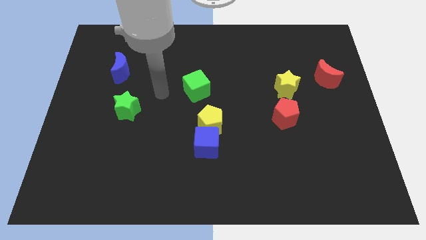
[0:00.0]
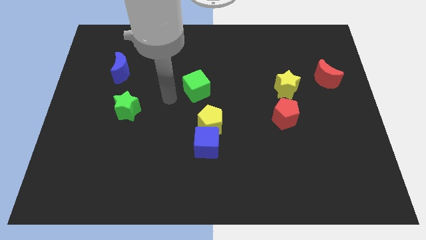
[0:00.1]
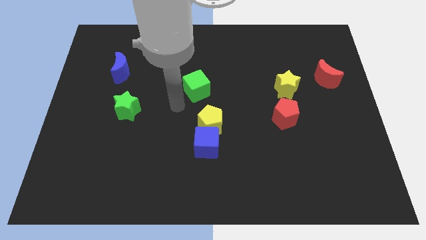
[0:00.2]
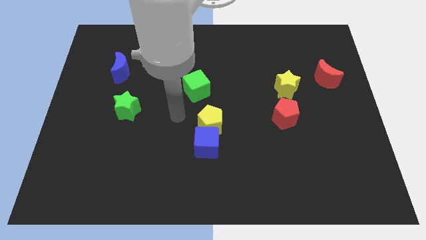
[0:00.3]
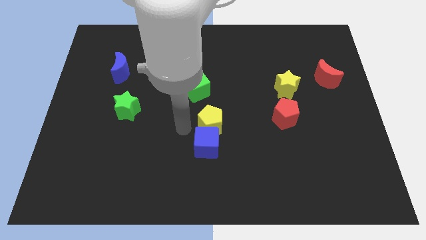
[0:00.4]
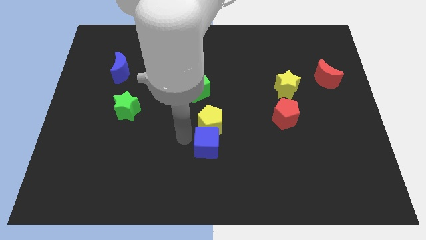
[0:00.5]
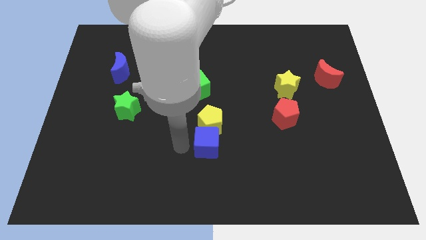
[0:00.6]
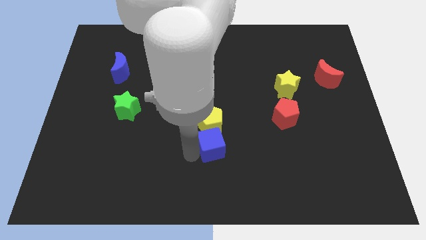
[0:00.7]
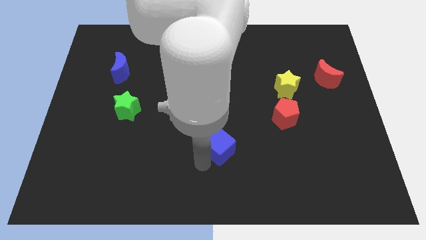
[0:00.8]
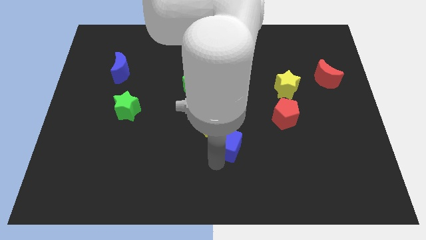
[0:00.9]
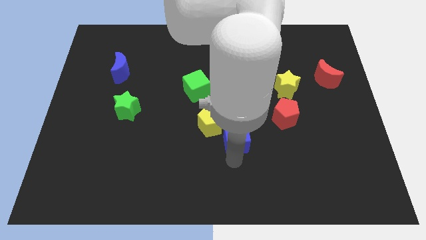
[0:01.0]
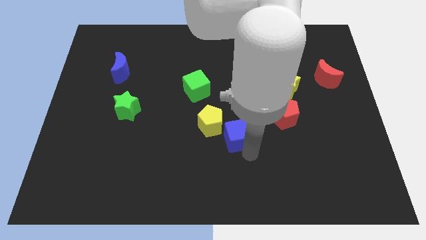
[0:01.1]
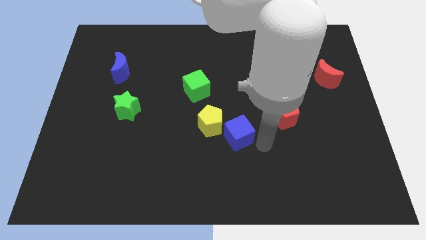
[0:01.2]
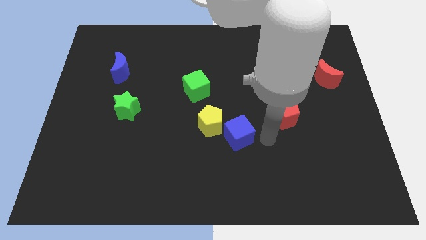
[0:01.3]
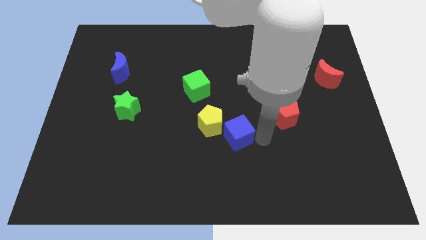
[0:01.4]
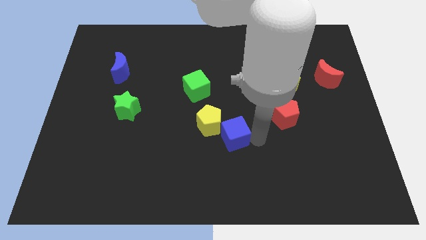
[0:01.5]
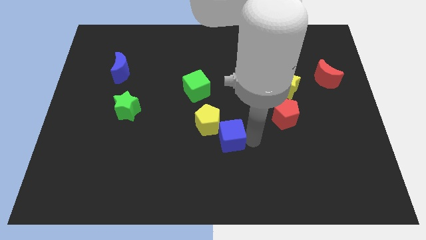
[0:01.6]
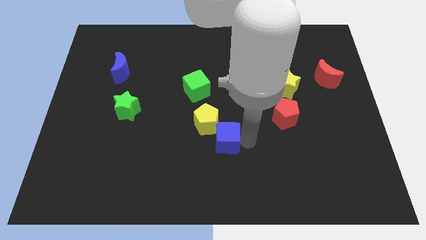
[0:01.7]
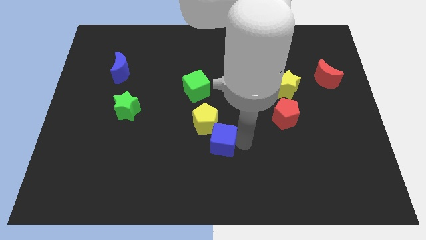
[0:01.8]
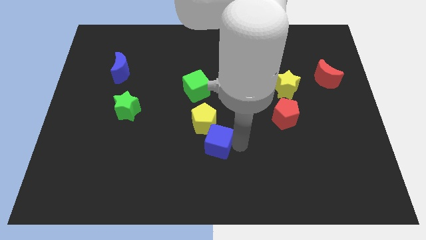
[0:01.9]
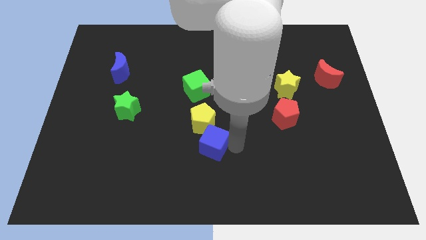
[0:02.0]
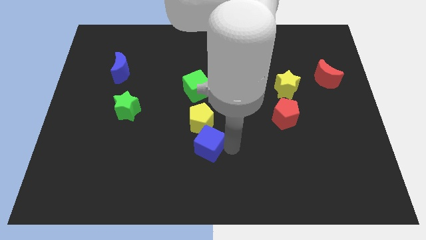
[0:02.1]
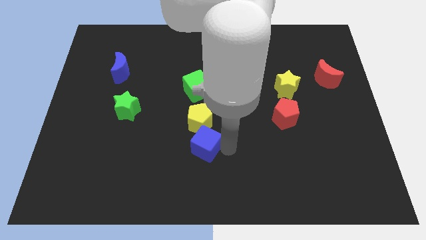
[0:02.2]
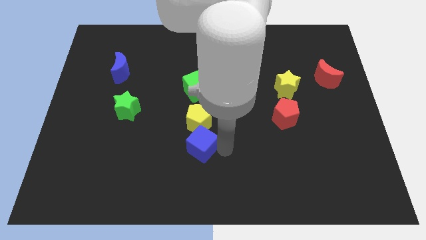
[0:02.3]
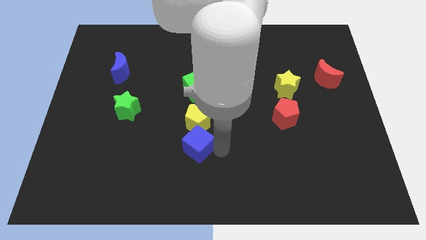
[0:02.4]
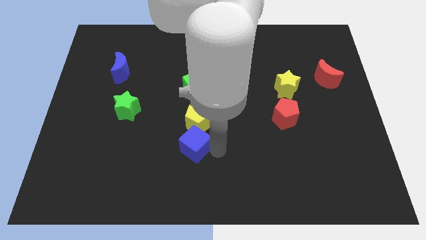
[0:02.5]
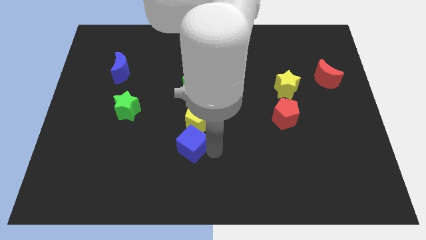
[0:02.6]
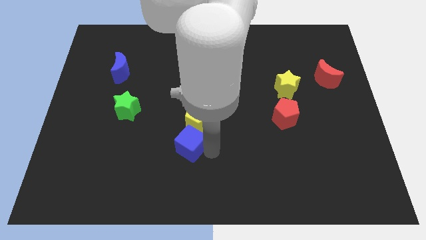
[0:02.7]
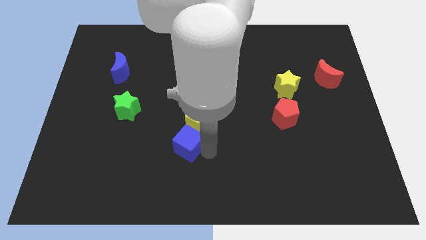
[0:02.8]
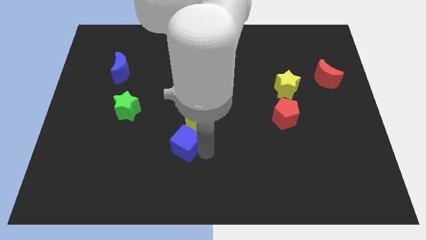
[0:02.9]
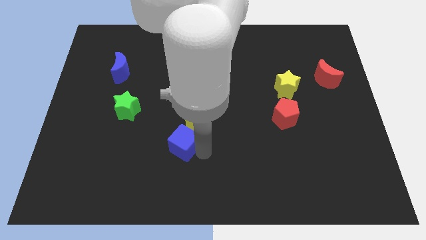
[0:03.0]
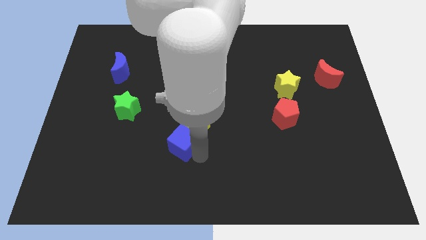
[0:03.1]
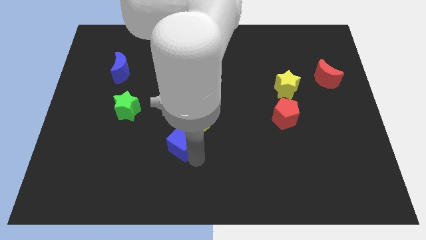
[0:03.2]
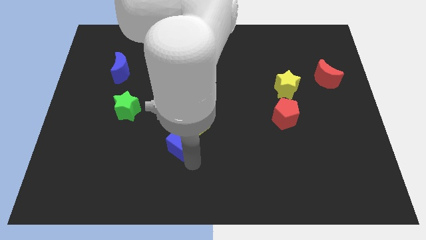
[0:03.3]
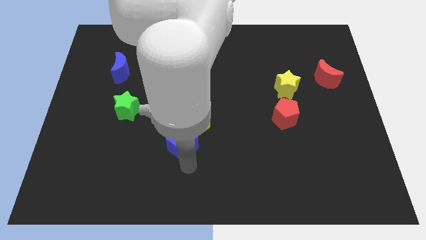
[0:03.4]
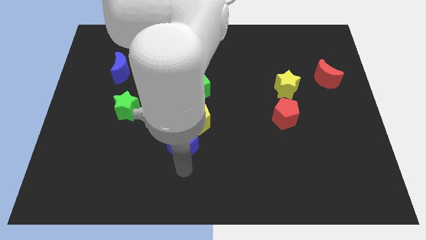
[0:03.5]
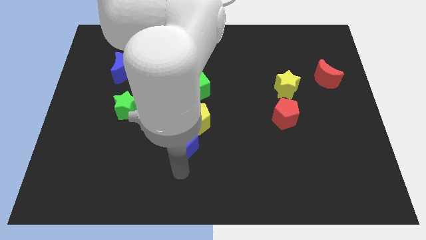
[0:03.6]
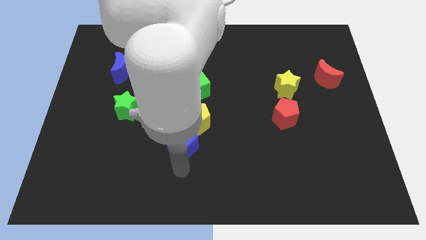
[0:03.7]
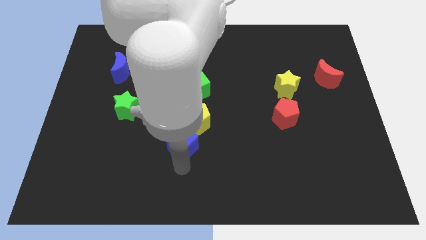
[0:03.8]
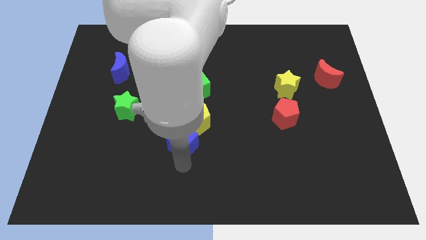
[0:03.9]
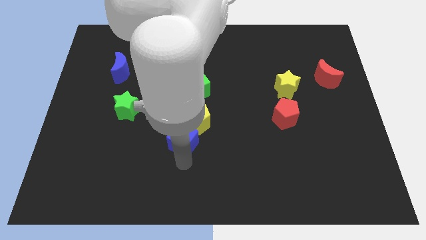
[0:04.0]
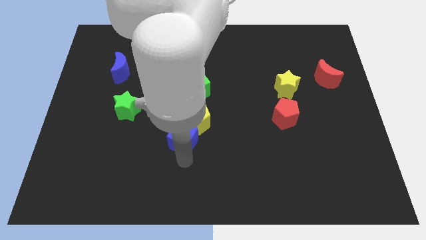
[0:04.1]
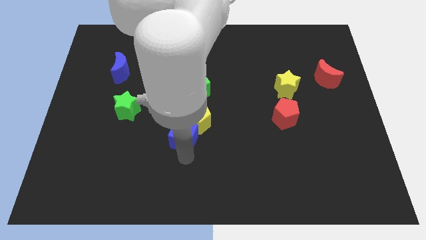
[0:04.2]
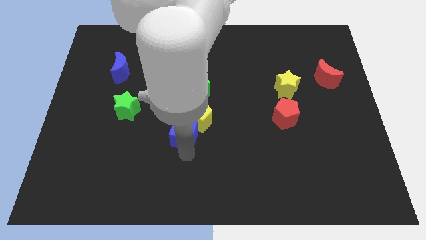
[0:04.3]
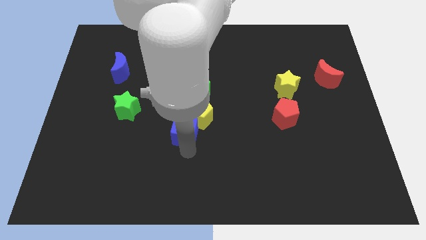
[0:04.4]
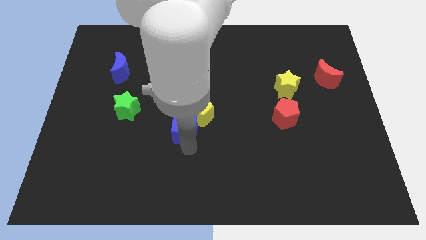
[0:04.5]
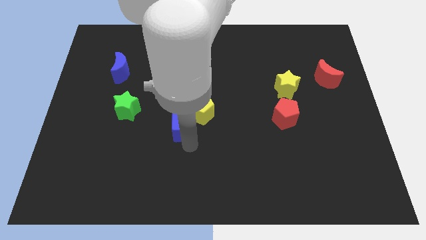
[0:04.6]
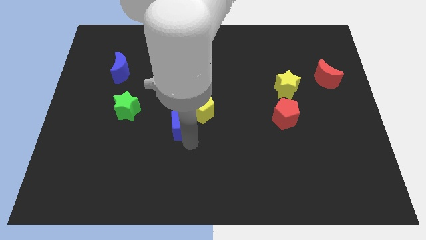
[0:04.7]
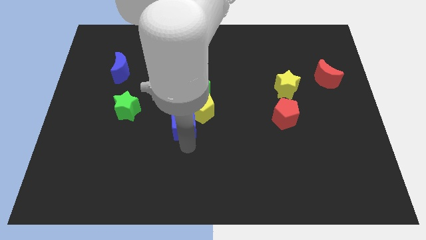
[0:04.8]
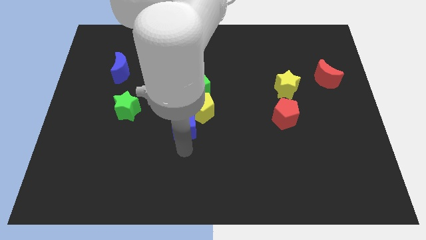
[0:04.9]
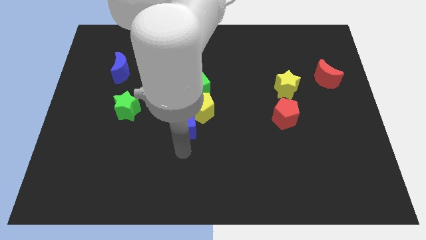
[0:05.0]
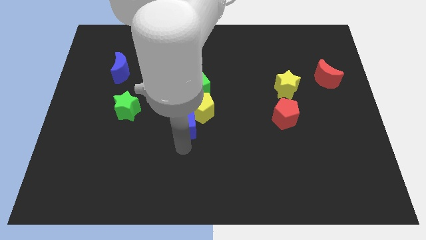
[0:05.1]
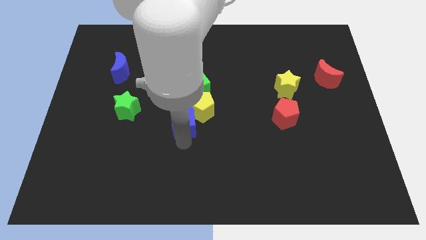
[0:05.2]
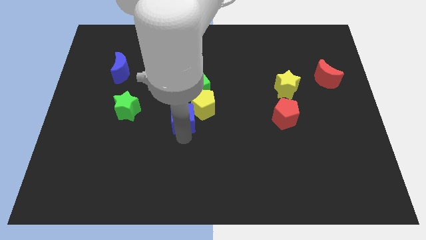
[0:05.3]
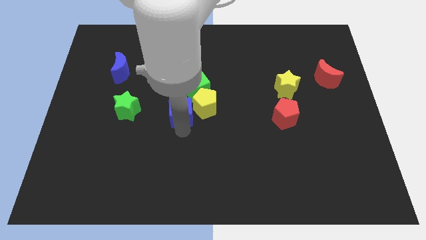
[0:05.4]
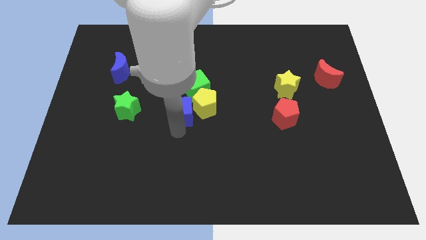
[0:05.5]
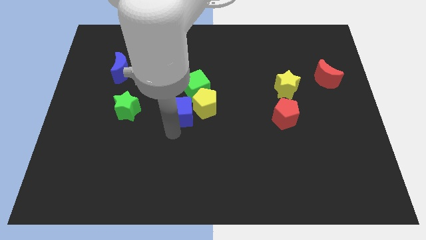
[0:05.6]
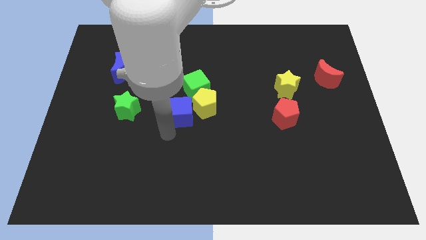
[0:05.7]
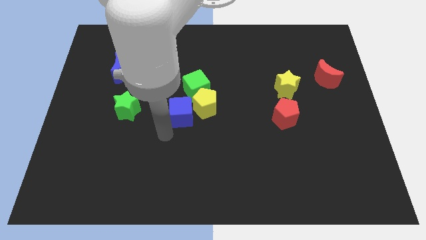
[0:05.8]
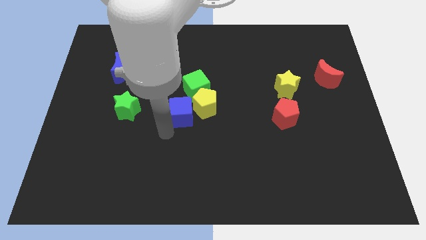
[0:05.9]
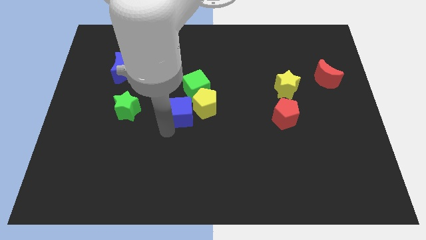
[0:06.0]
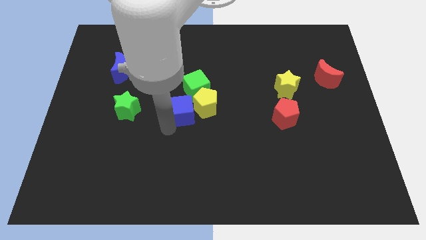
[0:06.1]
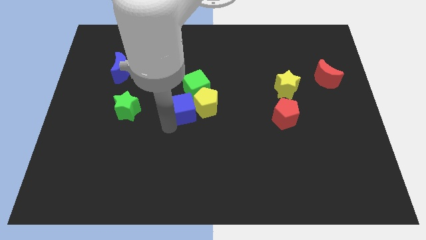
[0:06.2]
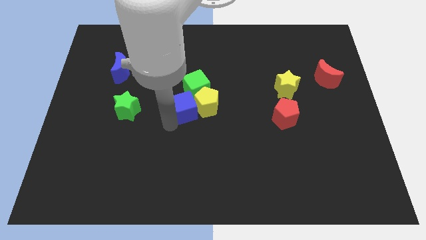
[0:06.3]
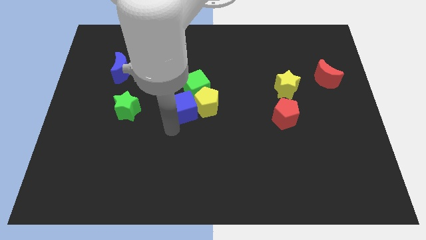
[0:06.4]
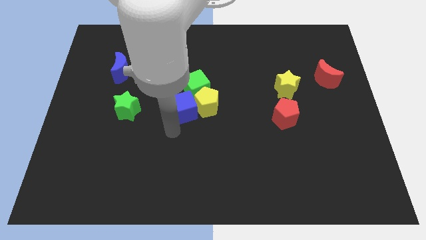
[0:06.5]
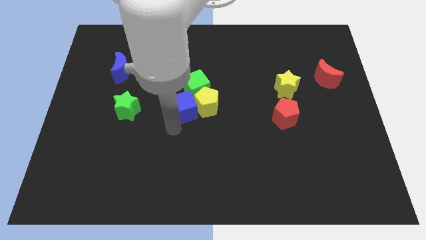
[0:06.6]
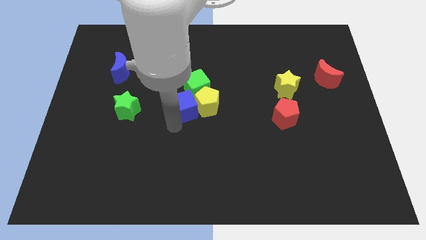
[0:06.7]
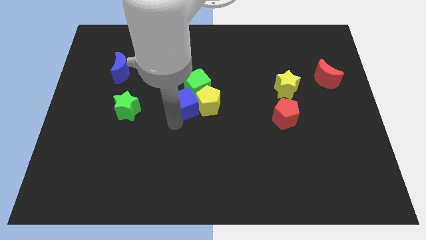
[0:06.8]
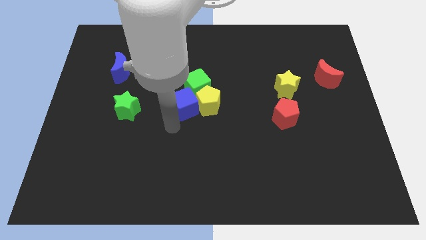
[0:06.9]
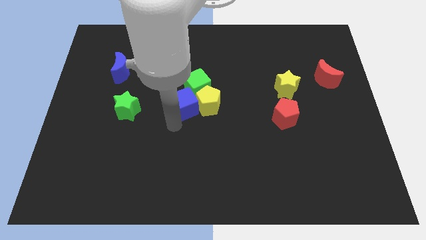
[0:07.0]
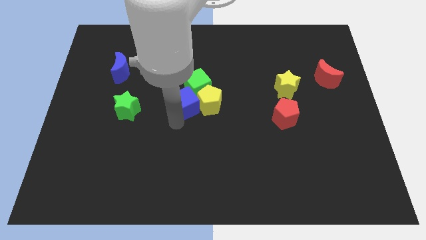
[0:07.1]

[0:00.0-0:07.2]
slide the blue cube towards the green cube
